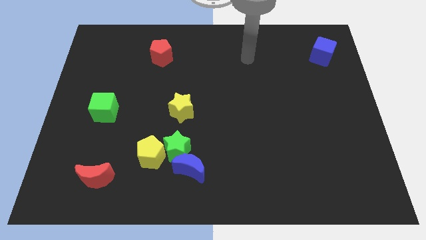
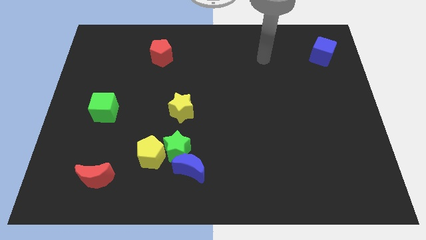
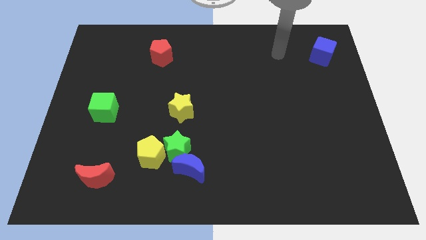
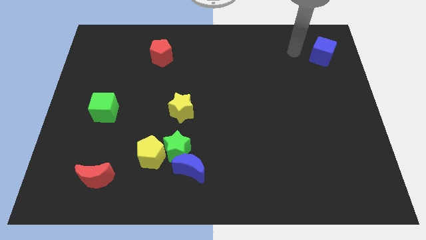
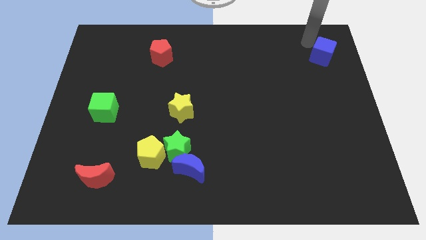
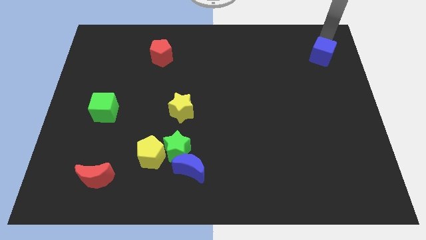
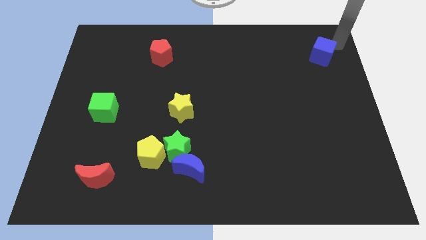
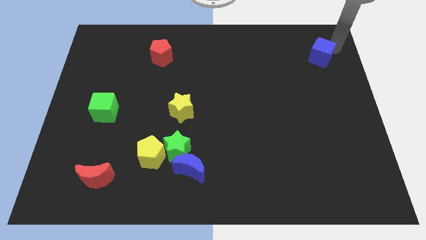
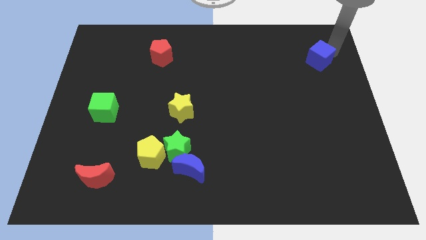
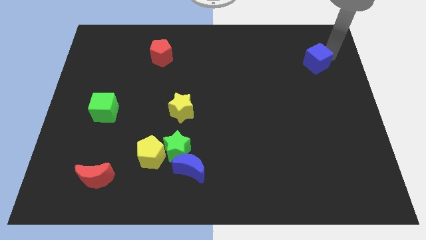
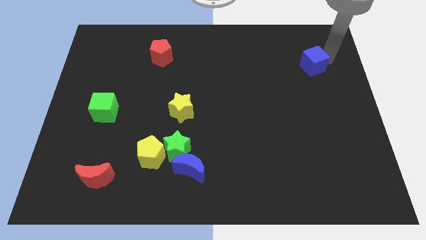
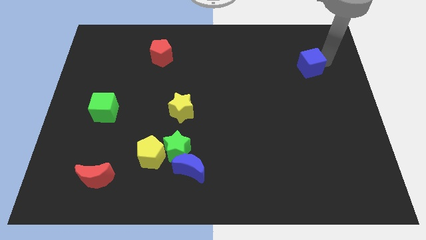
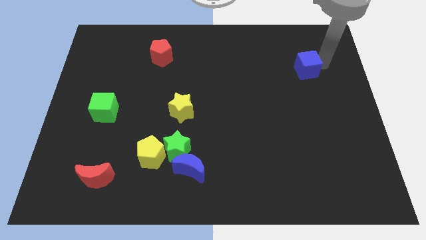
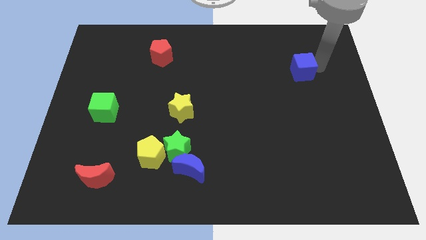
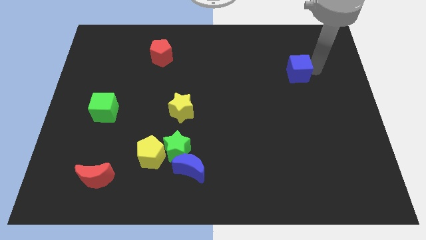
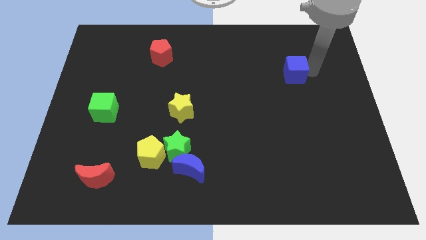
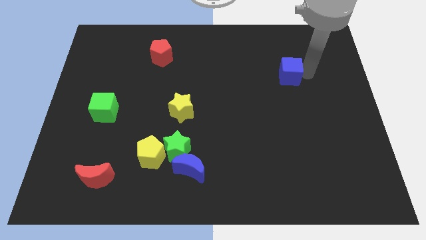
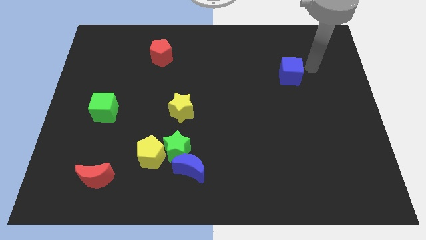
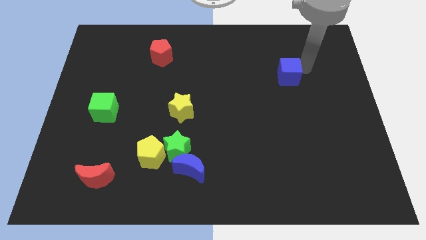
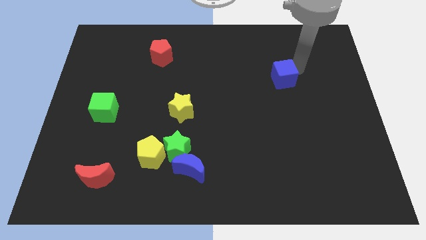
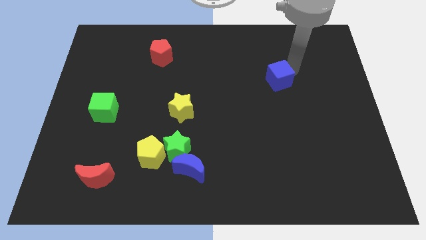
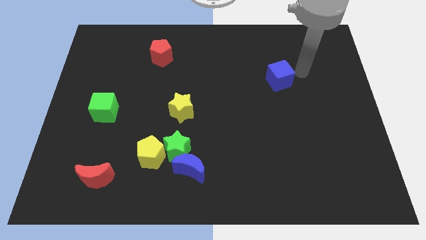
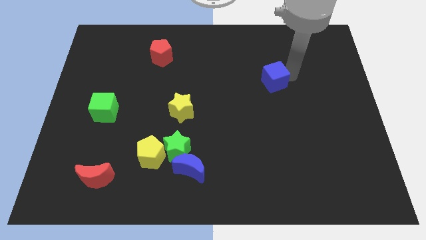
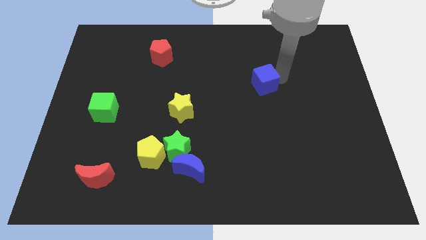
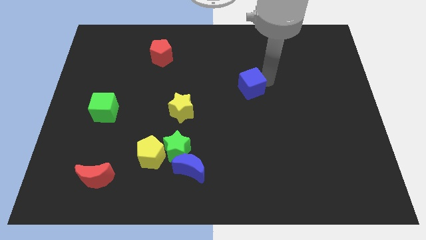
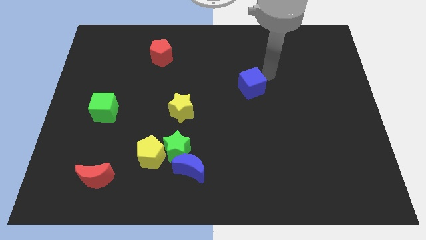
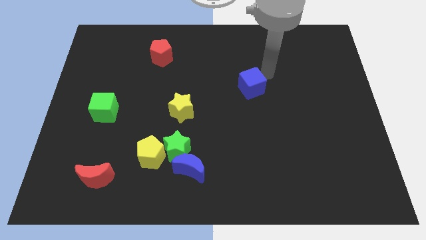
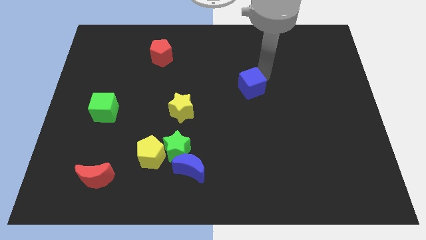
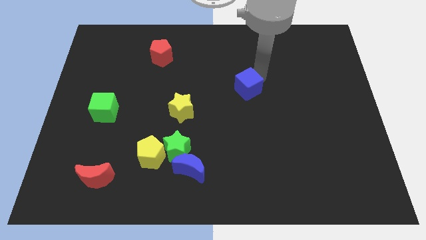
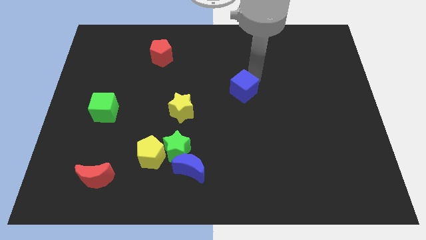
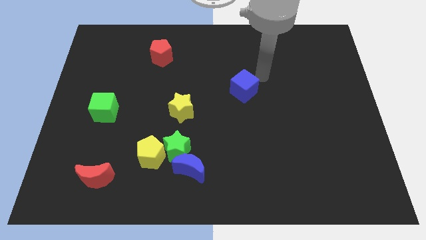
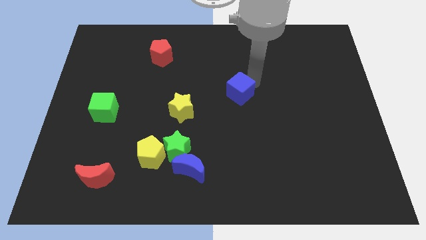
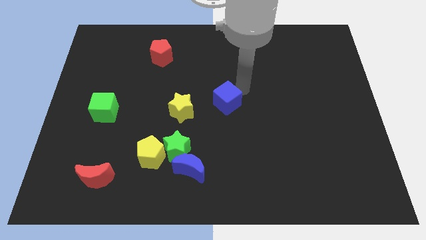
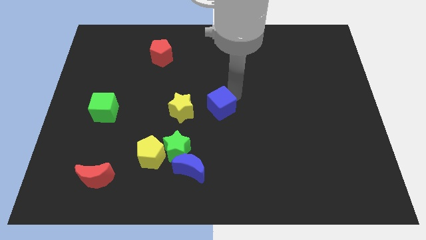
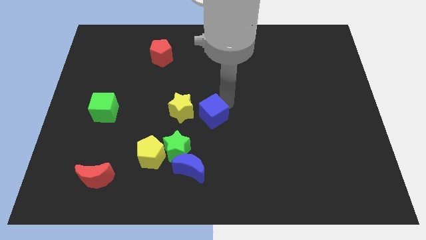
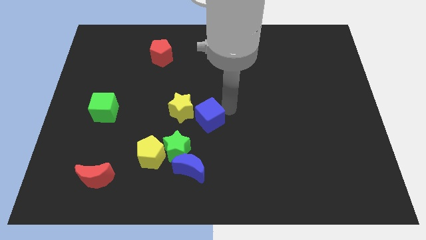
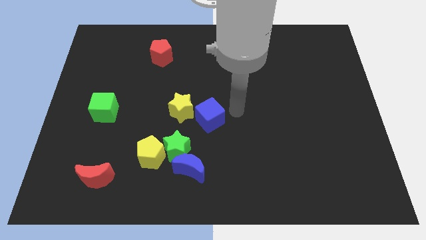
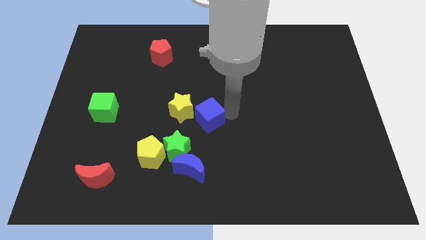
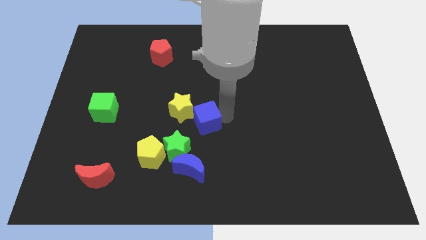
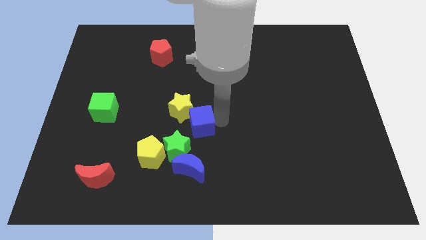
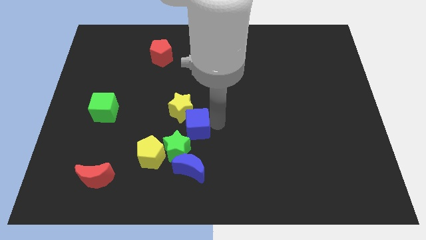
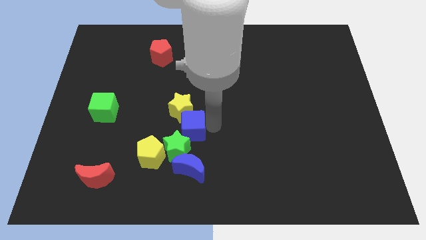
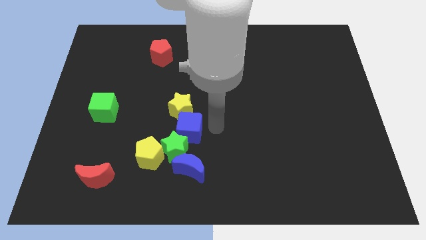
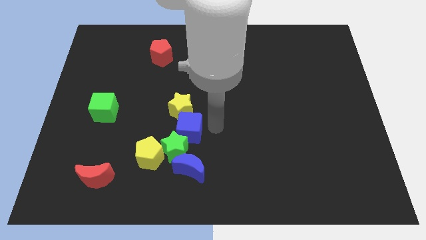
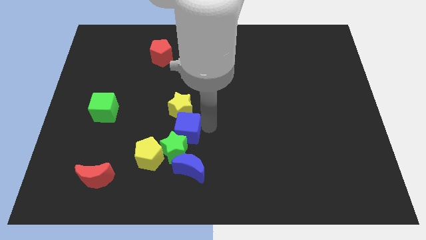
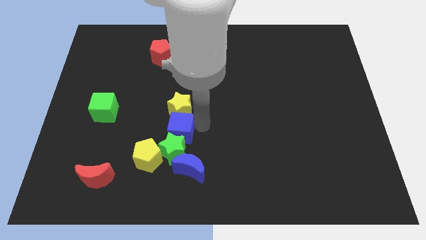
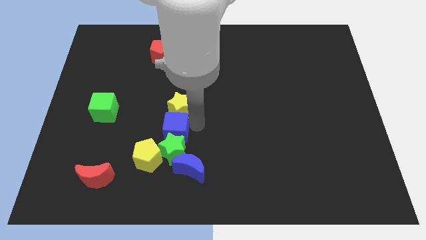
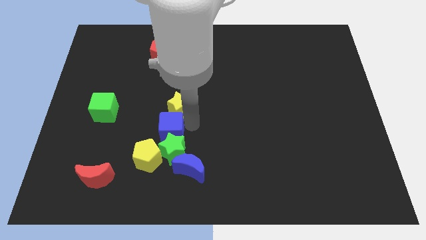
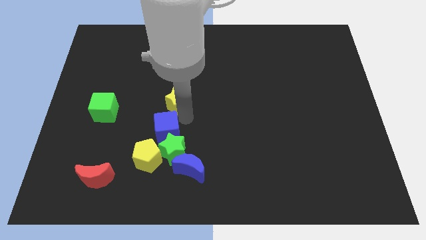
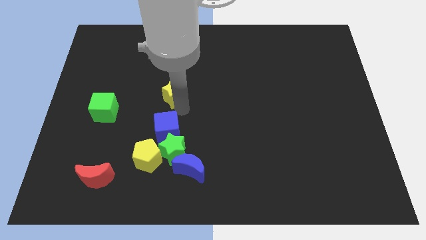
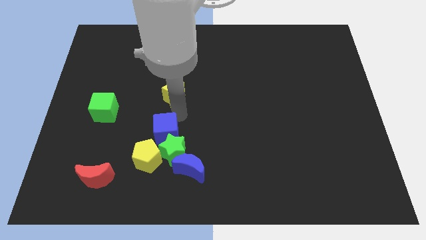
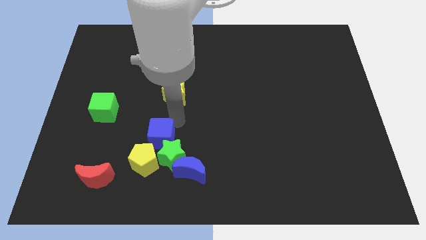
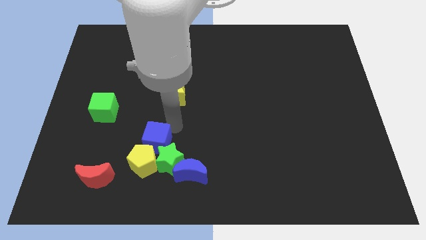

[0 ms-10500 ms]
slide the blue cube next to the yellow pentagon

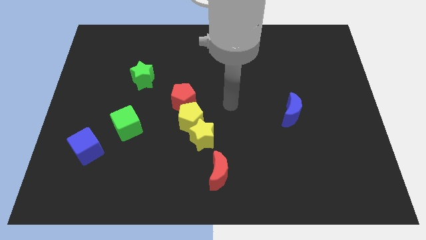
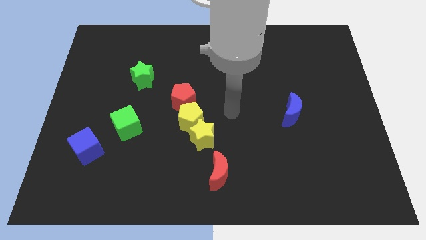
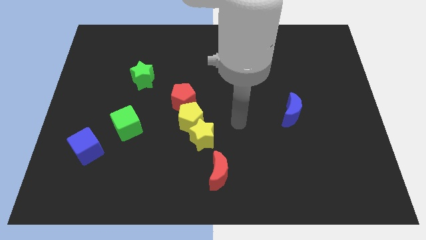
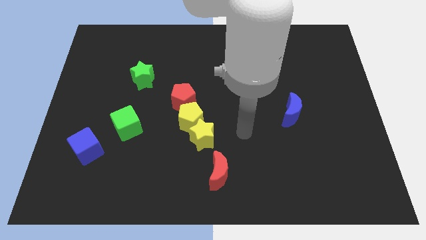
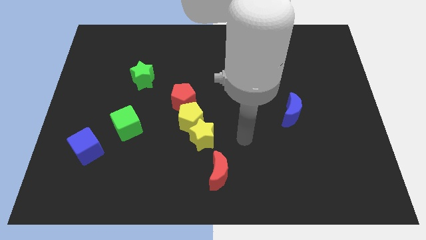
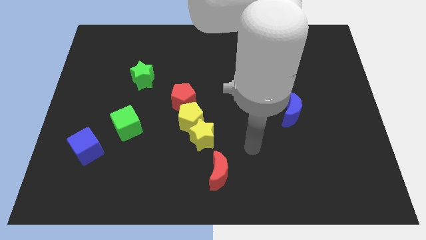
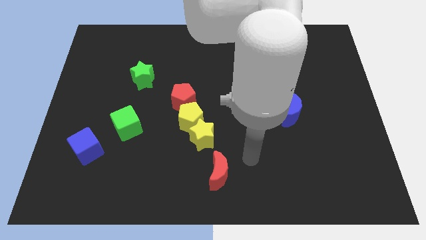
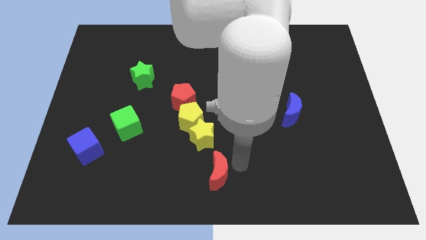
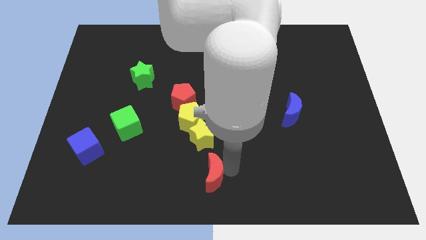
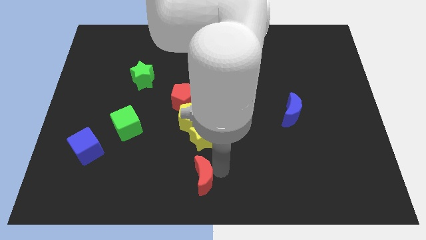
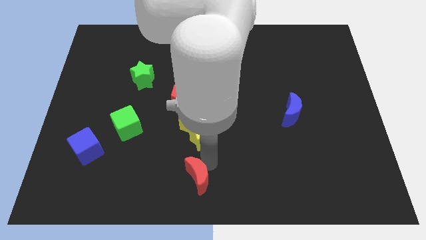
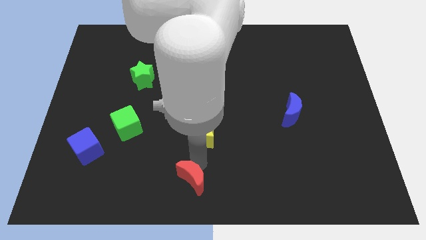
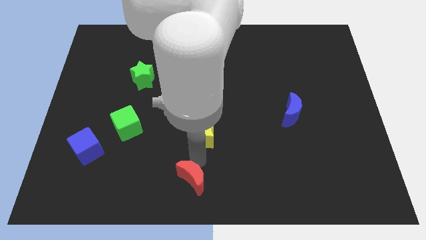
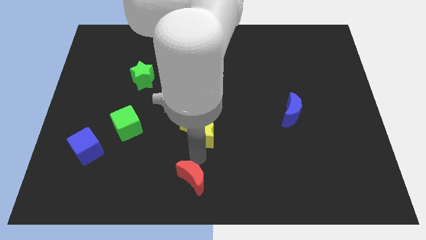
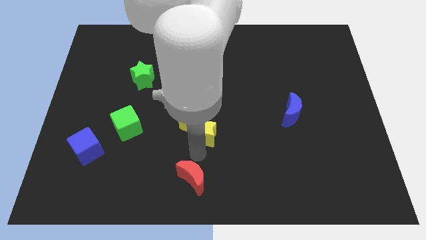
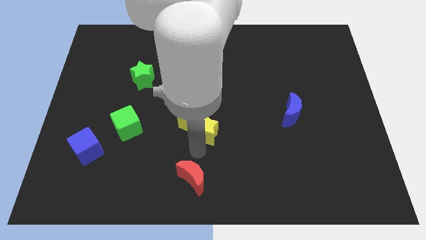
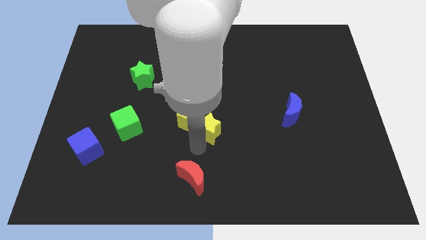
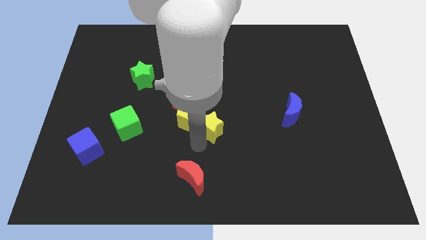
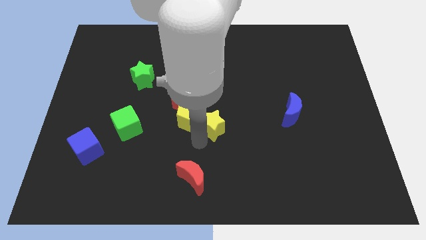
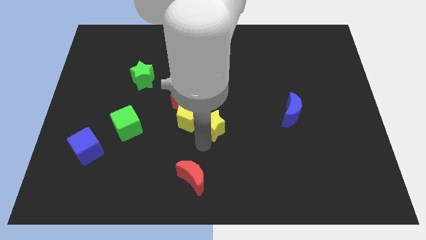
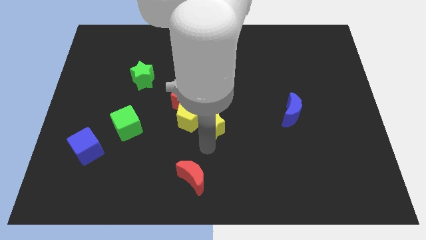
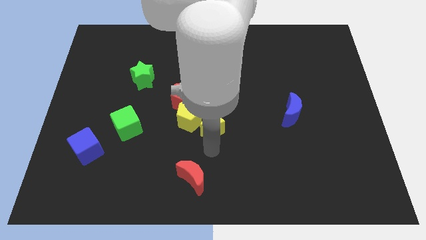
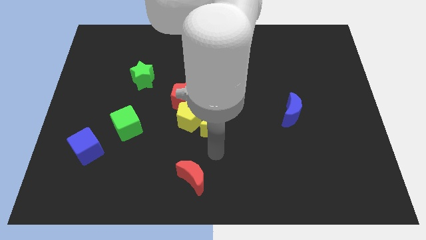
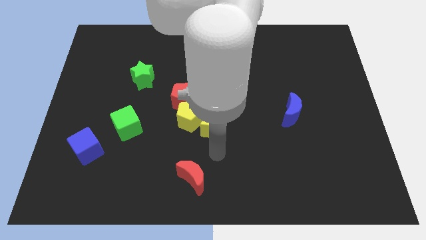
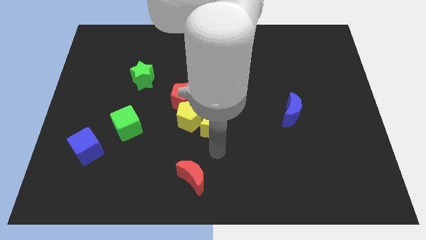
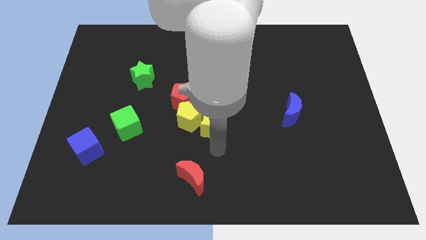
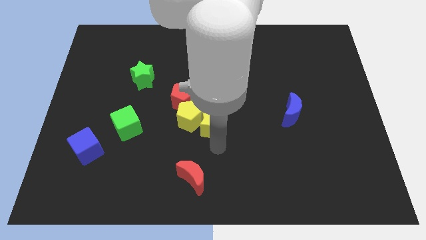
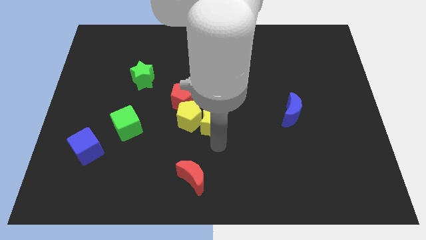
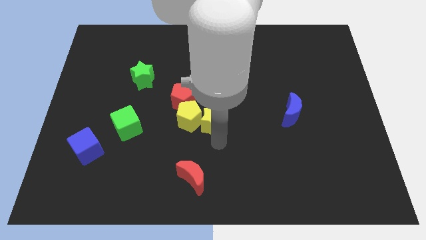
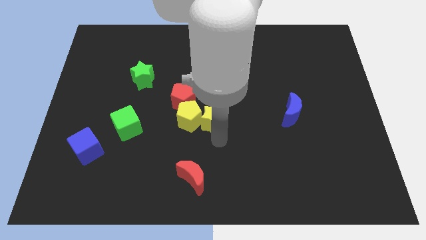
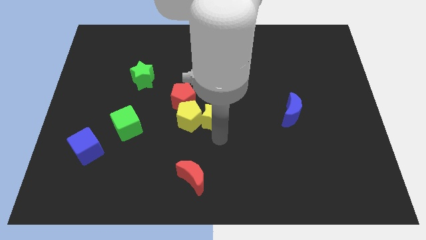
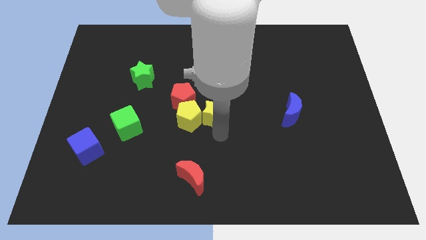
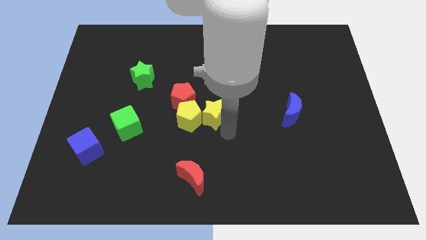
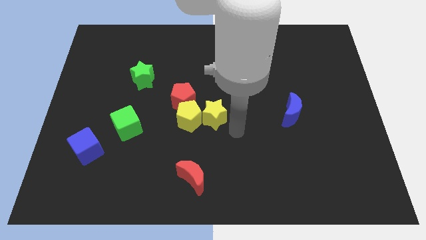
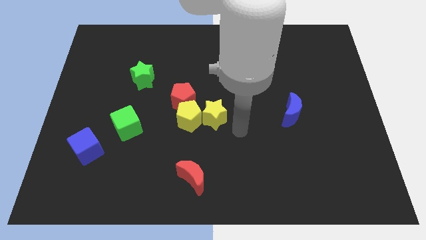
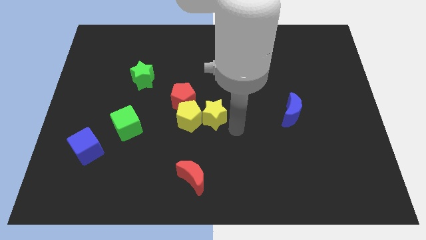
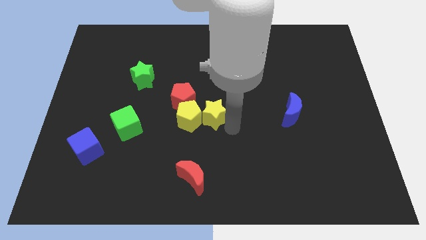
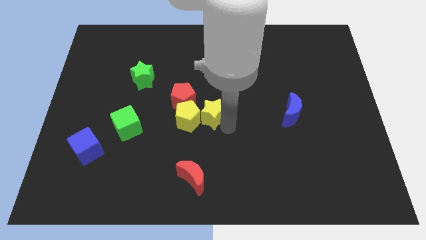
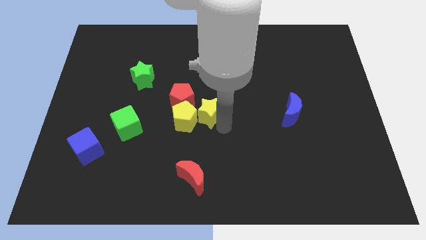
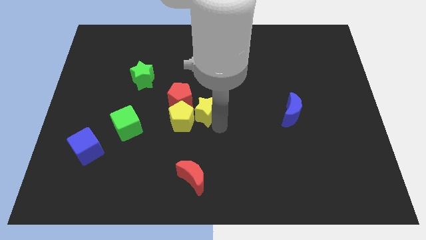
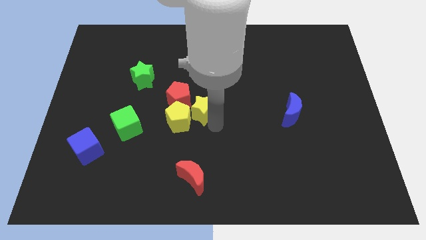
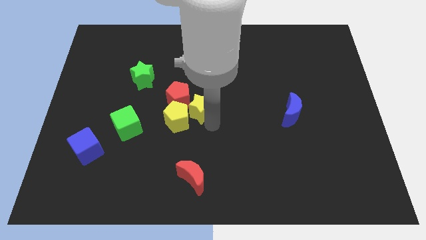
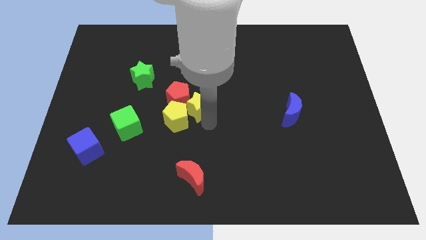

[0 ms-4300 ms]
slide the yellow star towards the red pentagon
